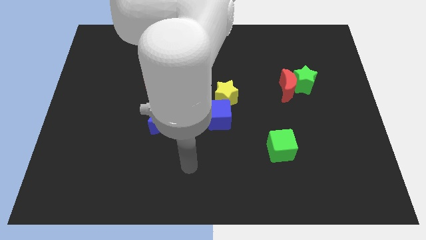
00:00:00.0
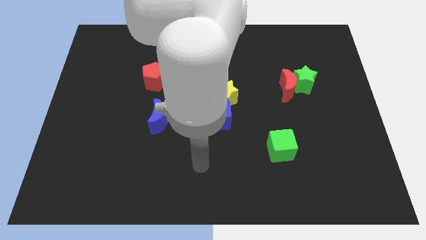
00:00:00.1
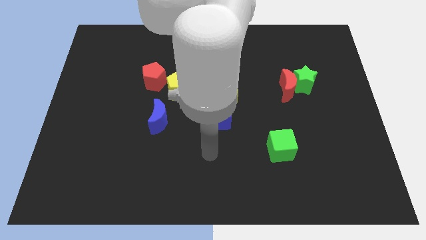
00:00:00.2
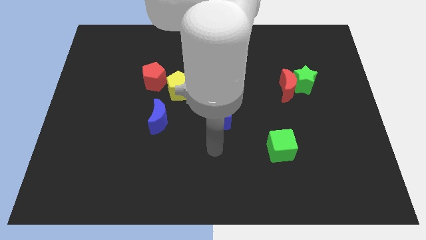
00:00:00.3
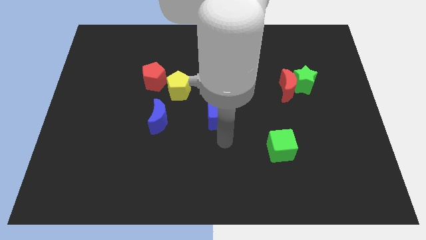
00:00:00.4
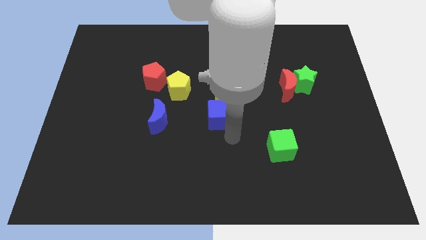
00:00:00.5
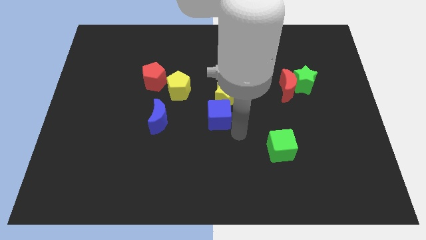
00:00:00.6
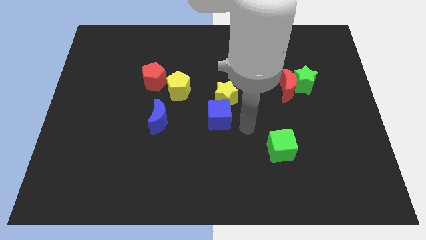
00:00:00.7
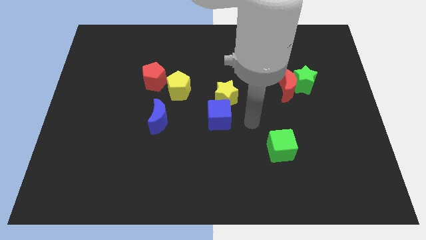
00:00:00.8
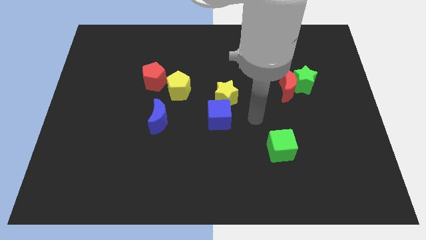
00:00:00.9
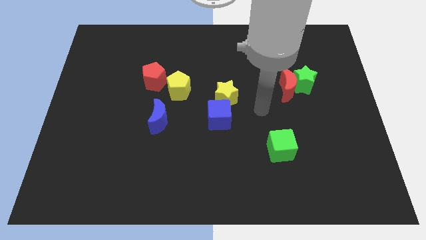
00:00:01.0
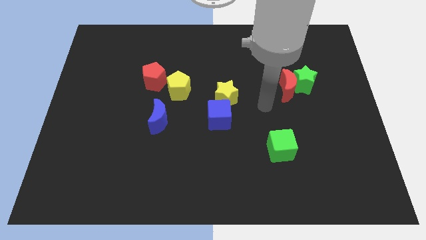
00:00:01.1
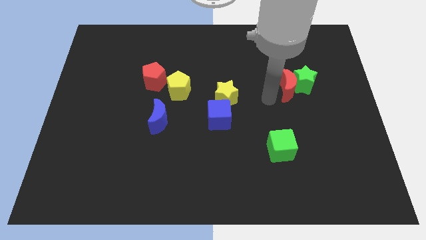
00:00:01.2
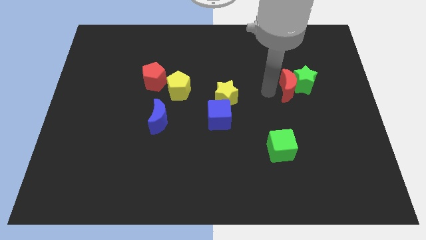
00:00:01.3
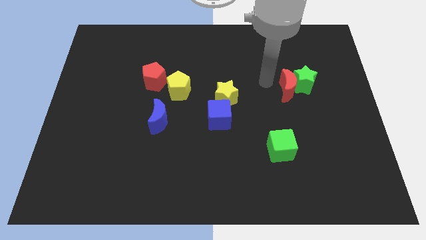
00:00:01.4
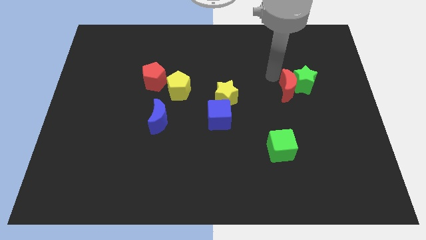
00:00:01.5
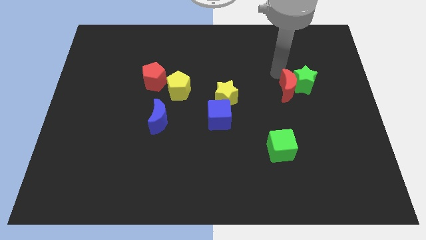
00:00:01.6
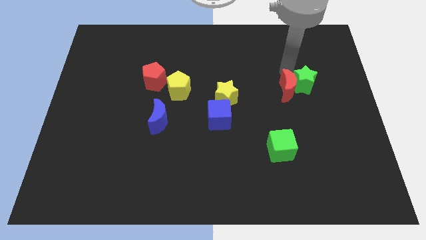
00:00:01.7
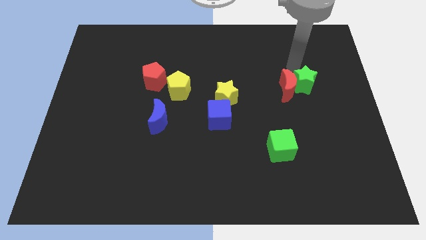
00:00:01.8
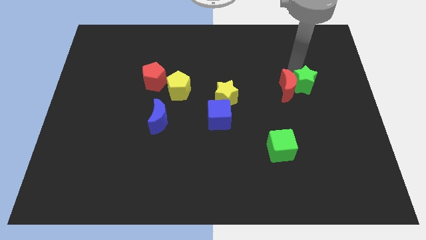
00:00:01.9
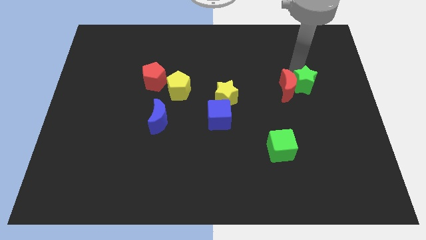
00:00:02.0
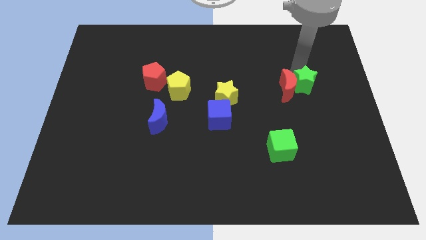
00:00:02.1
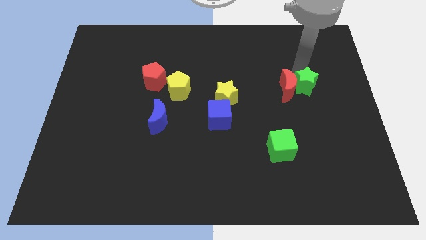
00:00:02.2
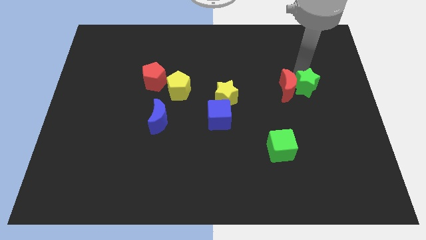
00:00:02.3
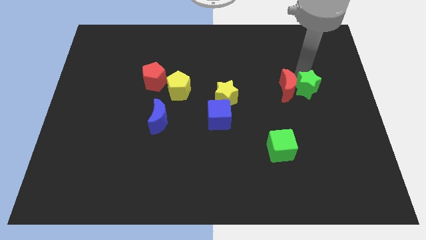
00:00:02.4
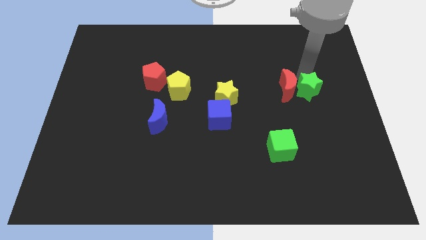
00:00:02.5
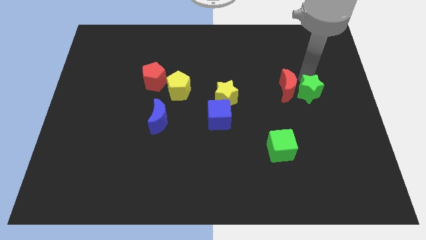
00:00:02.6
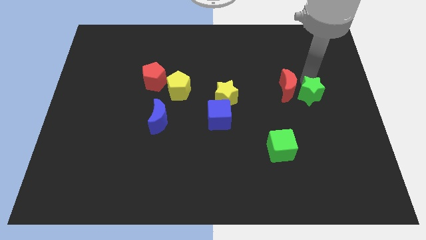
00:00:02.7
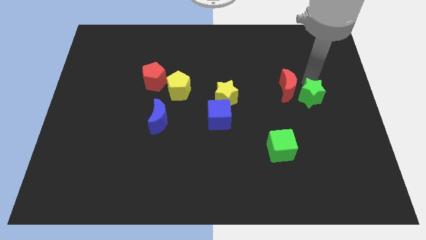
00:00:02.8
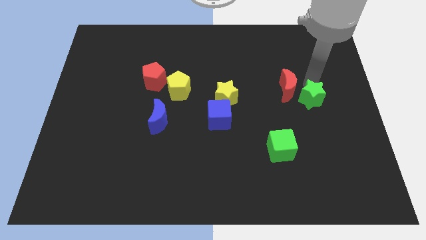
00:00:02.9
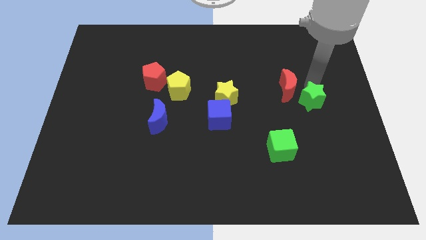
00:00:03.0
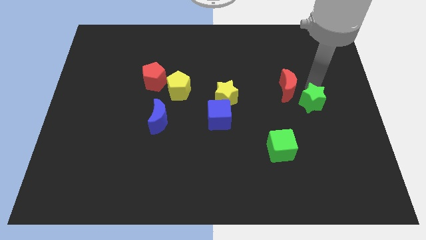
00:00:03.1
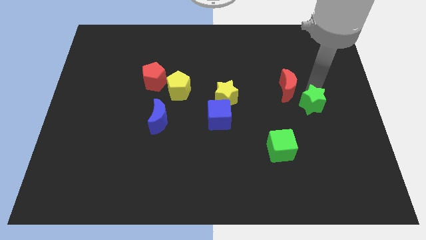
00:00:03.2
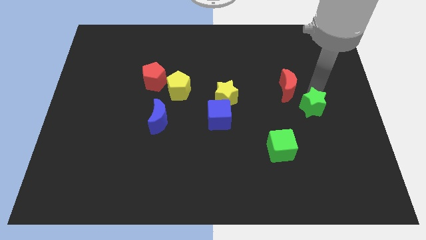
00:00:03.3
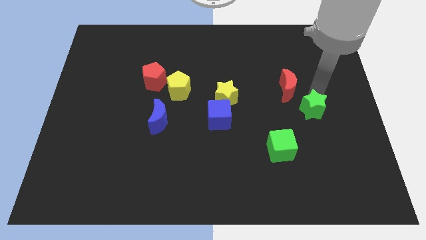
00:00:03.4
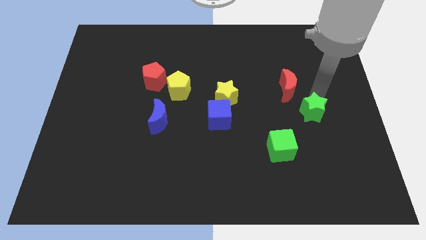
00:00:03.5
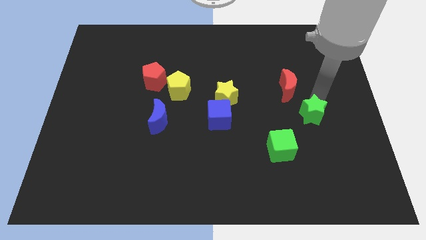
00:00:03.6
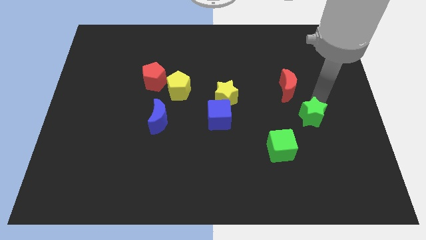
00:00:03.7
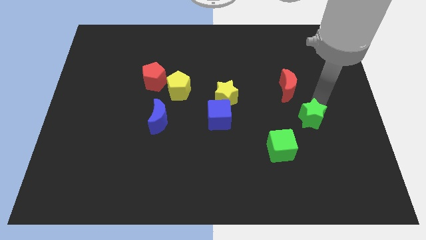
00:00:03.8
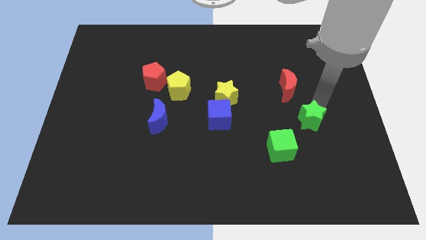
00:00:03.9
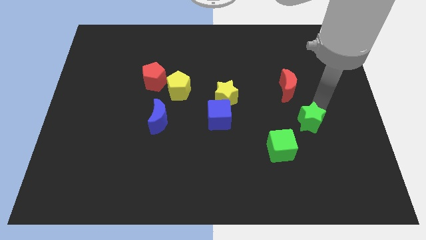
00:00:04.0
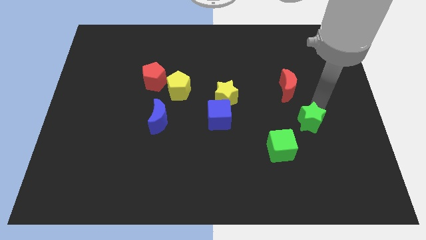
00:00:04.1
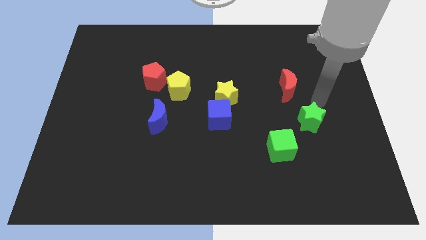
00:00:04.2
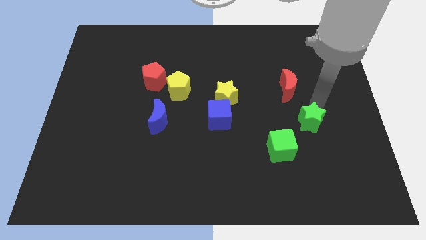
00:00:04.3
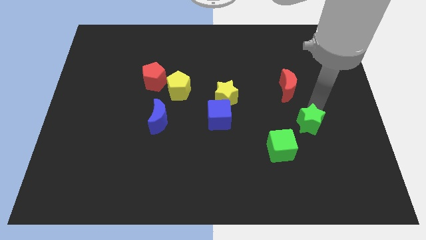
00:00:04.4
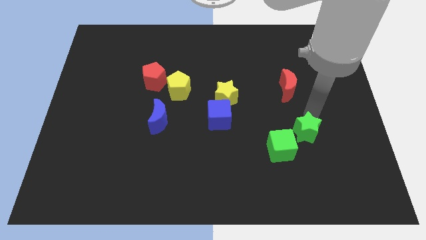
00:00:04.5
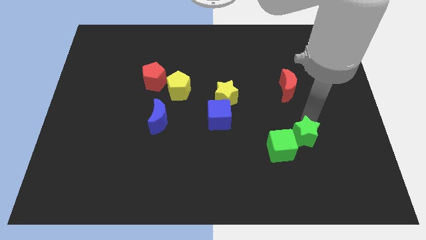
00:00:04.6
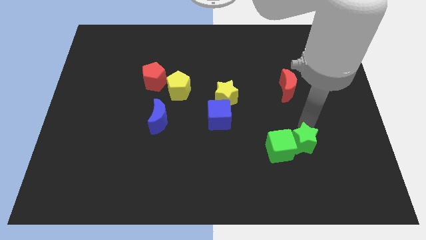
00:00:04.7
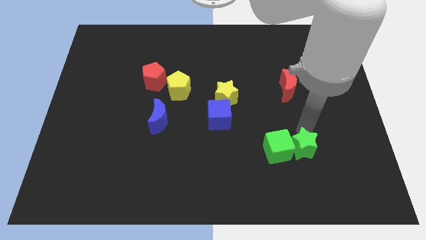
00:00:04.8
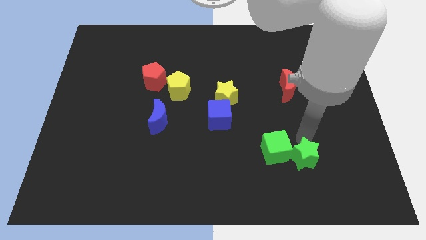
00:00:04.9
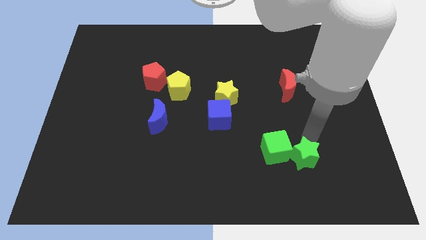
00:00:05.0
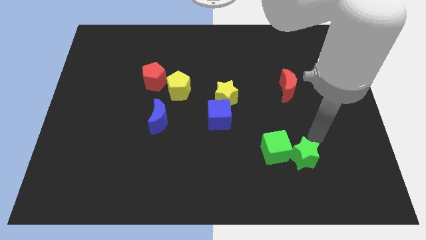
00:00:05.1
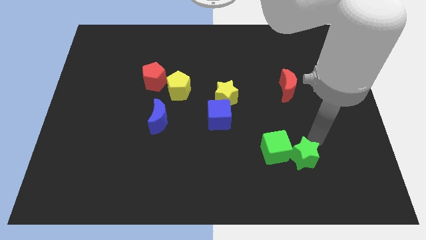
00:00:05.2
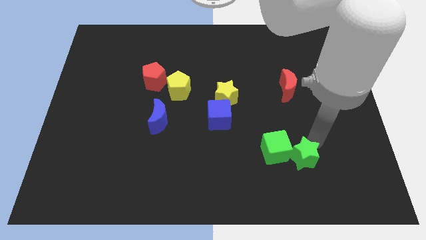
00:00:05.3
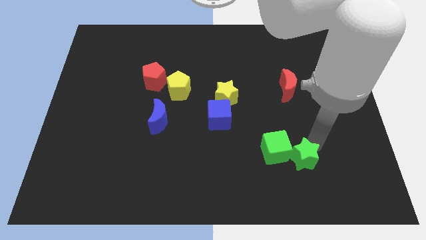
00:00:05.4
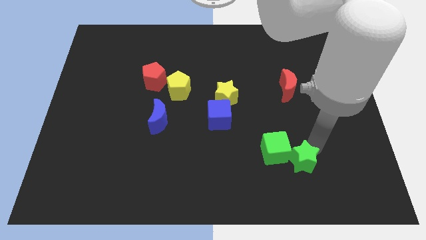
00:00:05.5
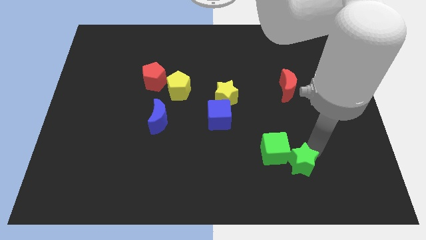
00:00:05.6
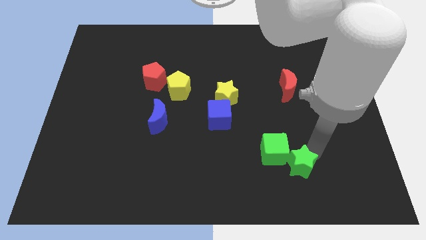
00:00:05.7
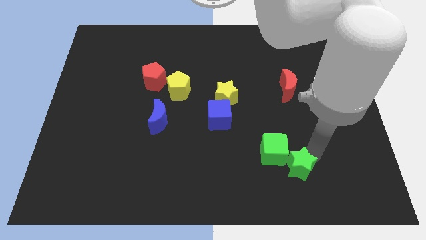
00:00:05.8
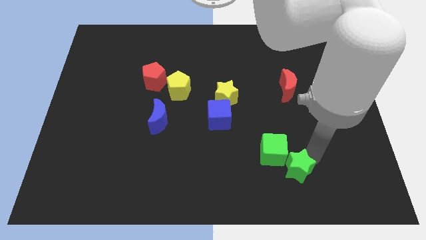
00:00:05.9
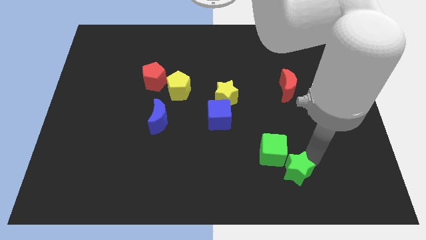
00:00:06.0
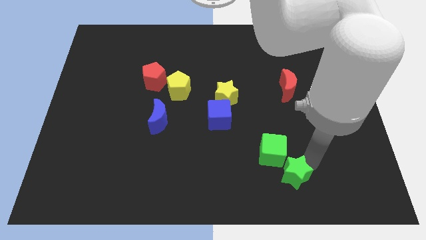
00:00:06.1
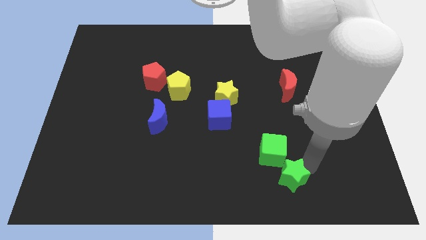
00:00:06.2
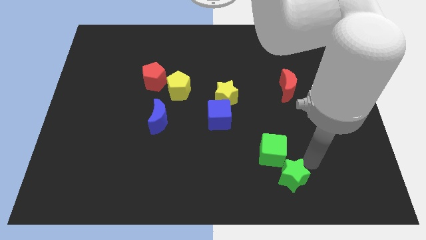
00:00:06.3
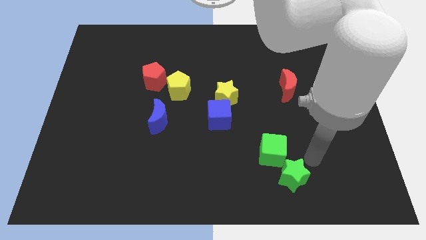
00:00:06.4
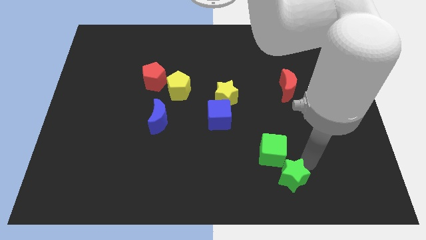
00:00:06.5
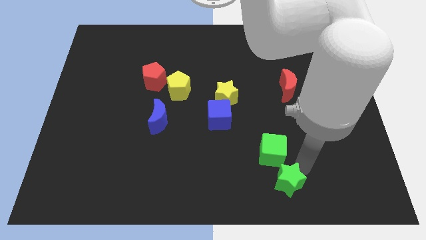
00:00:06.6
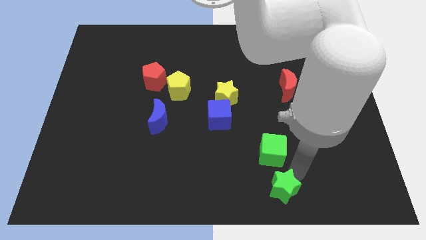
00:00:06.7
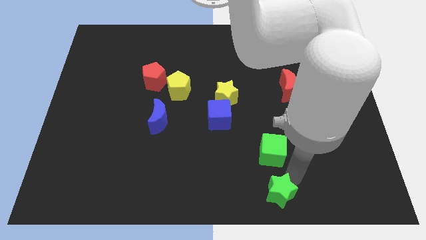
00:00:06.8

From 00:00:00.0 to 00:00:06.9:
move the green star to the bottom side
